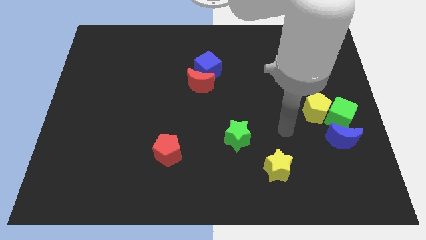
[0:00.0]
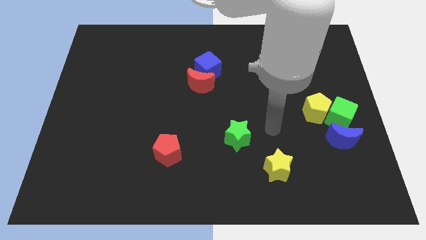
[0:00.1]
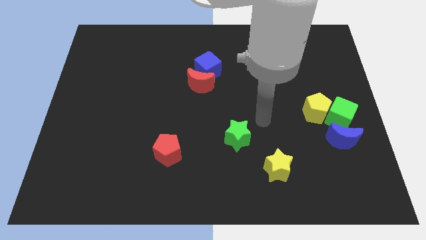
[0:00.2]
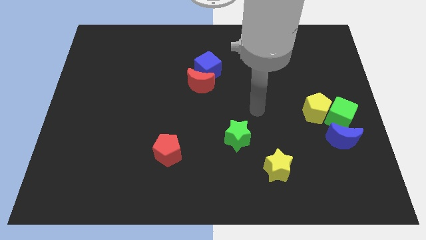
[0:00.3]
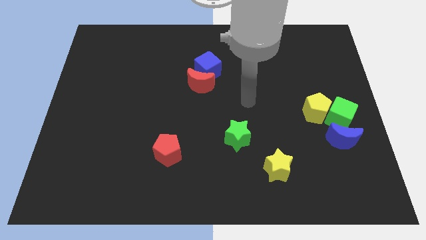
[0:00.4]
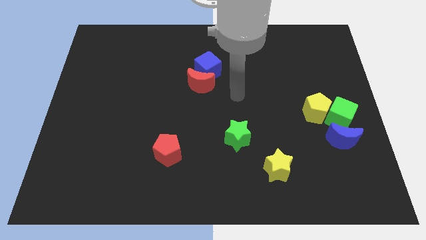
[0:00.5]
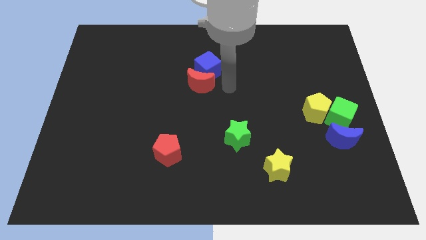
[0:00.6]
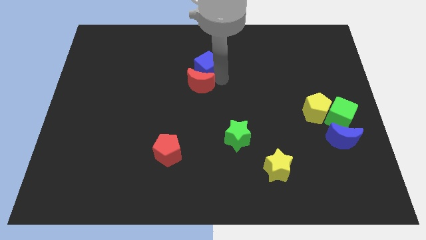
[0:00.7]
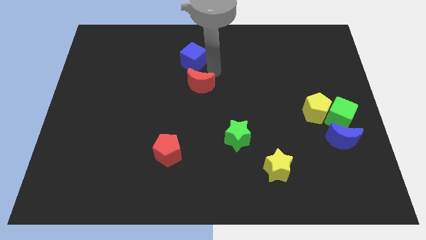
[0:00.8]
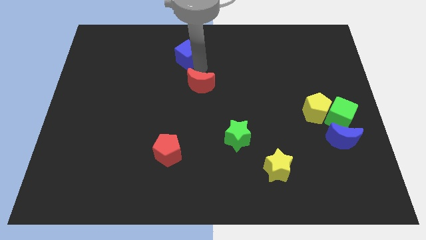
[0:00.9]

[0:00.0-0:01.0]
separate the red moon from the blue cube

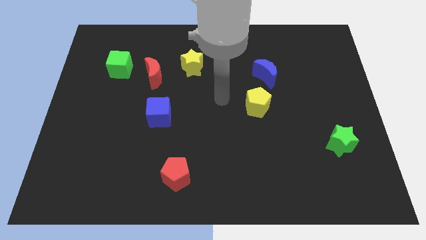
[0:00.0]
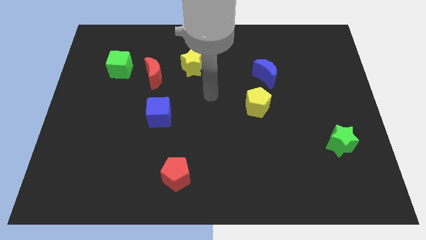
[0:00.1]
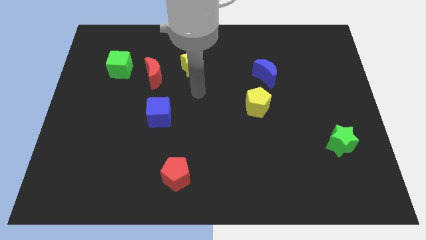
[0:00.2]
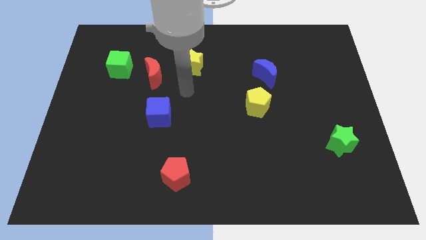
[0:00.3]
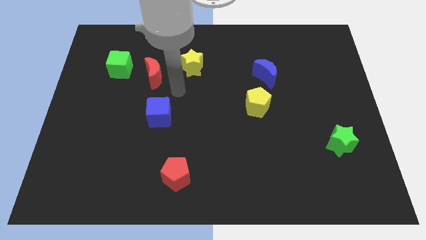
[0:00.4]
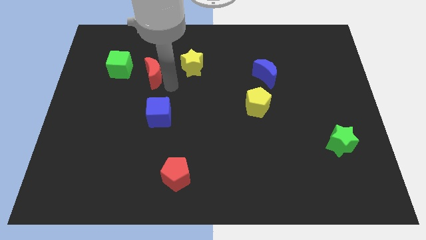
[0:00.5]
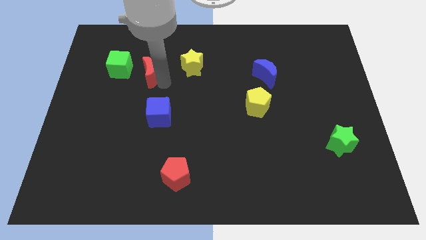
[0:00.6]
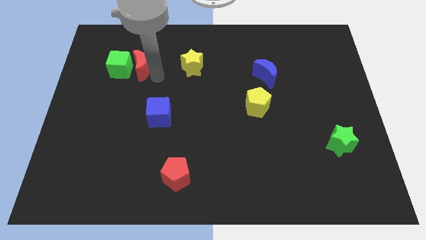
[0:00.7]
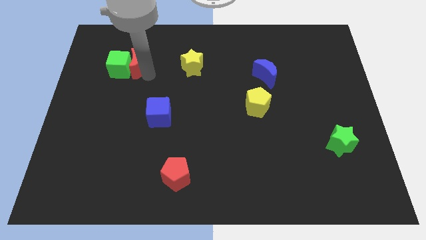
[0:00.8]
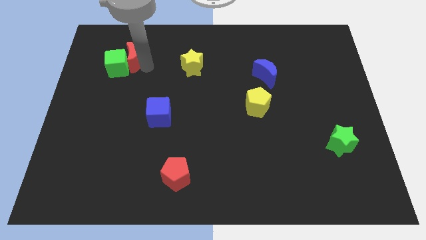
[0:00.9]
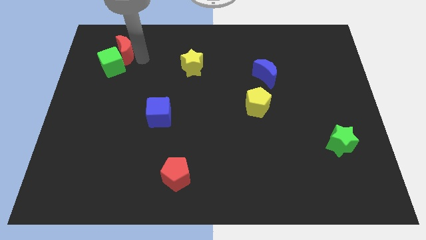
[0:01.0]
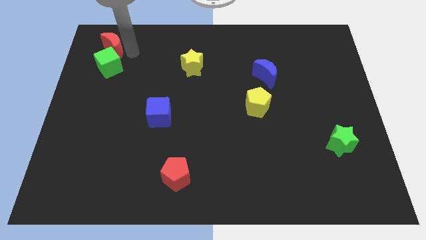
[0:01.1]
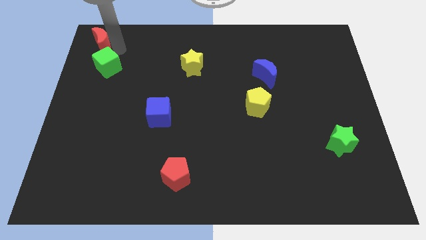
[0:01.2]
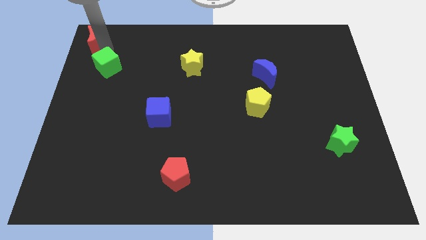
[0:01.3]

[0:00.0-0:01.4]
separate the green cube from the red moon

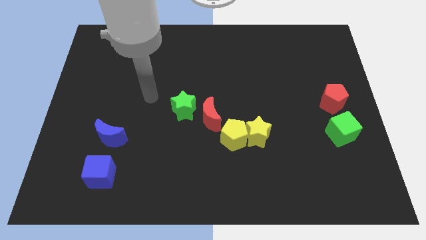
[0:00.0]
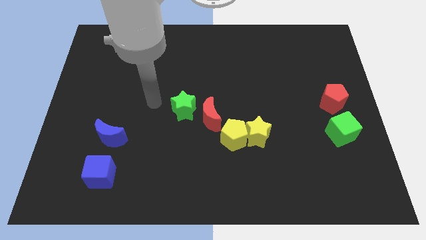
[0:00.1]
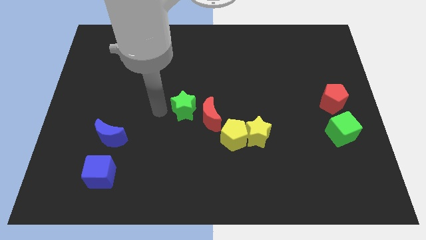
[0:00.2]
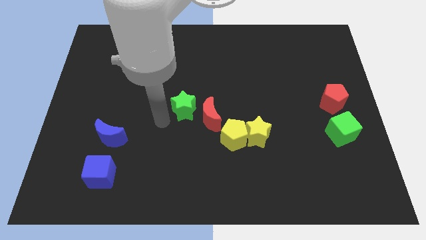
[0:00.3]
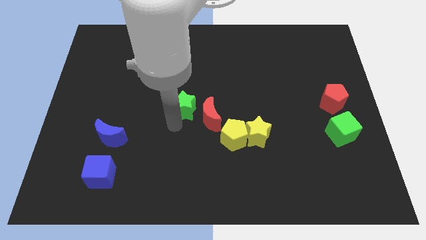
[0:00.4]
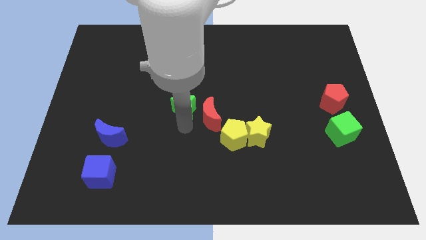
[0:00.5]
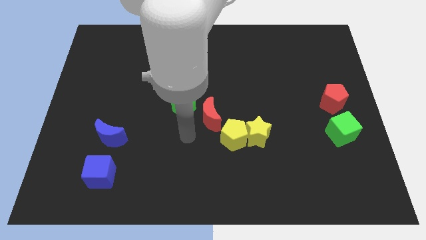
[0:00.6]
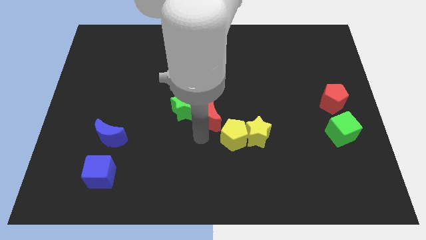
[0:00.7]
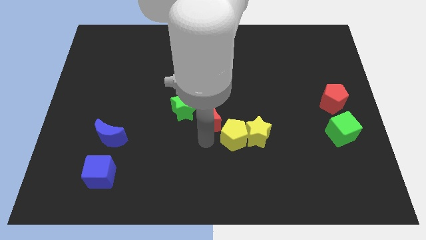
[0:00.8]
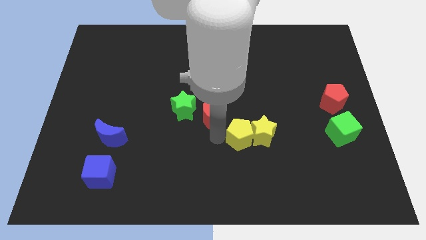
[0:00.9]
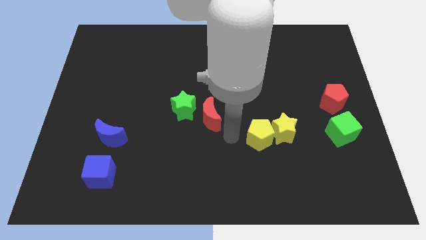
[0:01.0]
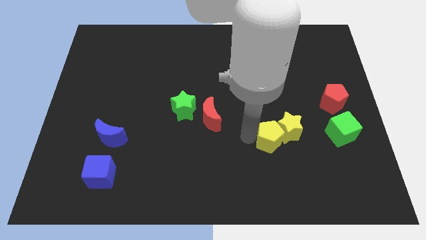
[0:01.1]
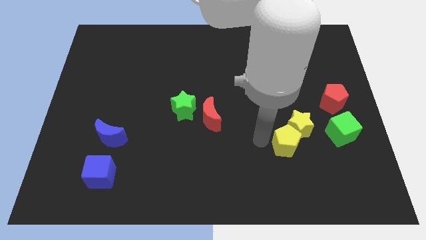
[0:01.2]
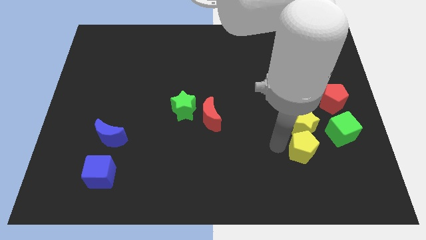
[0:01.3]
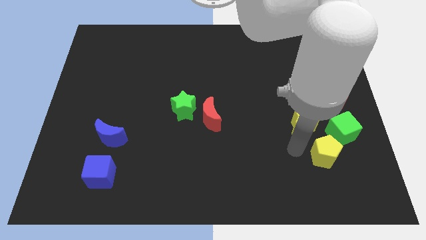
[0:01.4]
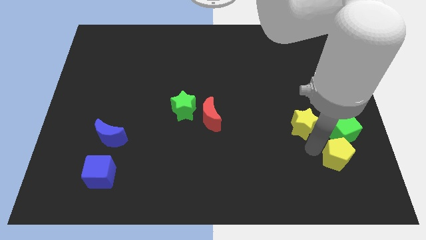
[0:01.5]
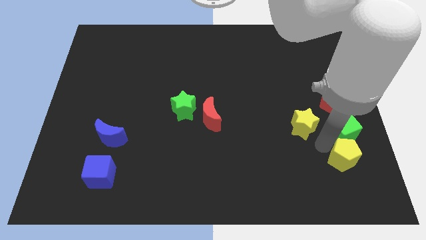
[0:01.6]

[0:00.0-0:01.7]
pull the yellow star apart from the yellow pentagon

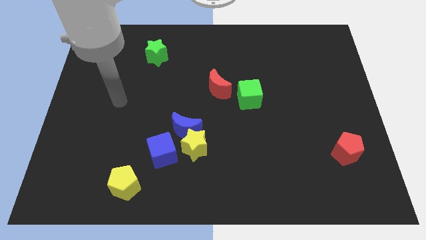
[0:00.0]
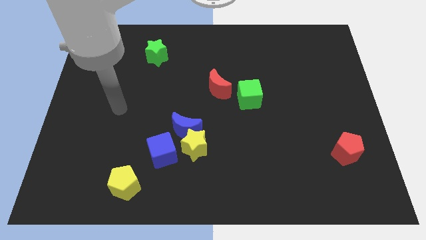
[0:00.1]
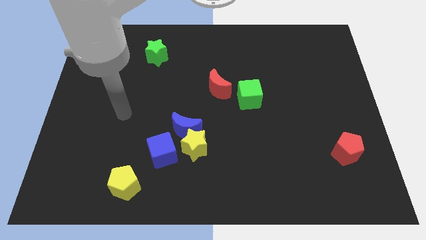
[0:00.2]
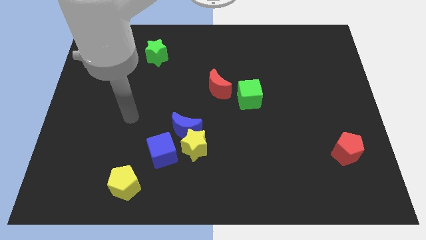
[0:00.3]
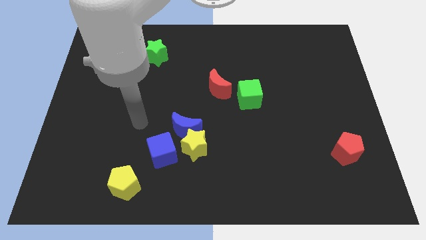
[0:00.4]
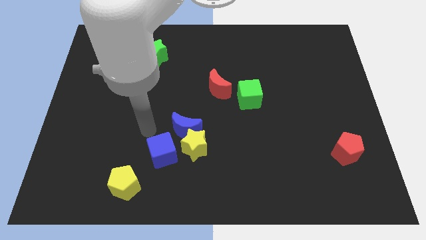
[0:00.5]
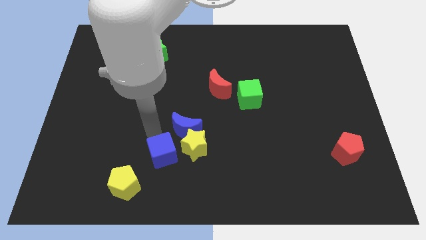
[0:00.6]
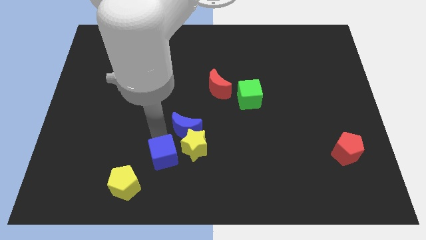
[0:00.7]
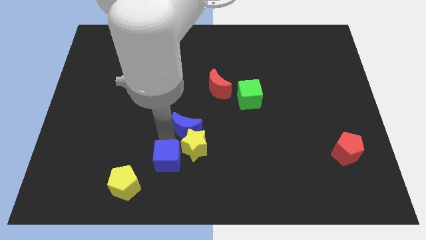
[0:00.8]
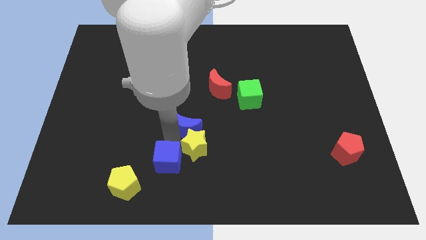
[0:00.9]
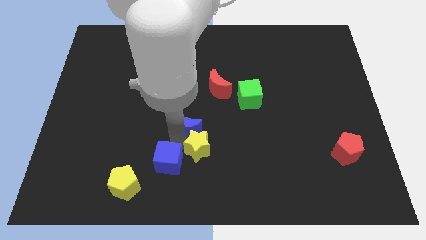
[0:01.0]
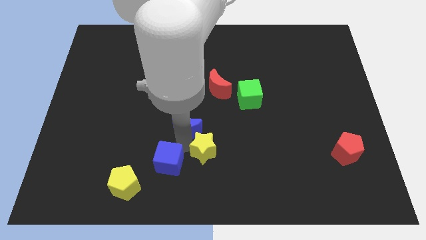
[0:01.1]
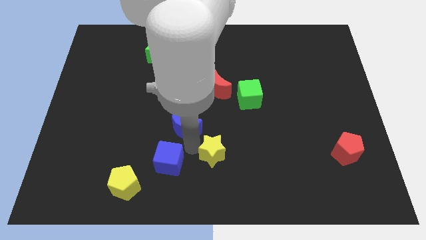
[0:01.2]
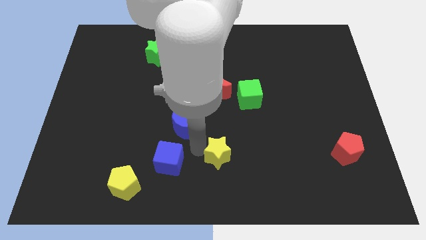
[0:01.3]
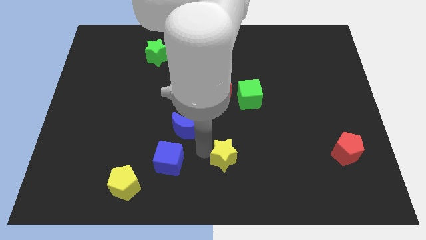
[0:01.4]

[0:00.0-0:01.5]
pull the yellow star apart from the blue moon and blue cube

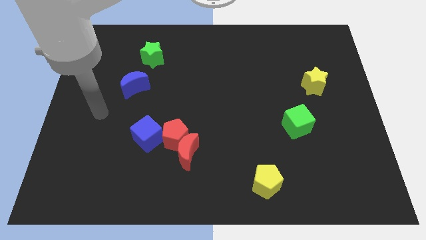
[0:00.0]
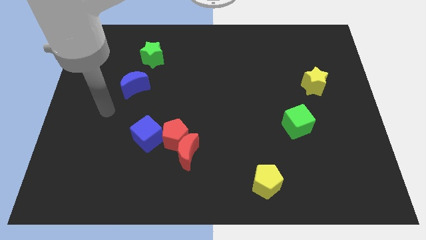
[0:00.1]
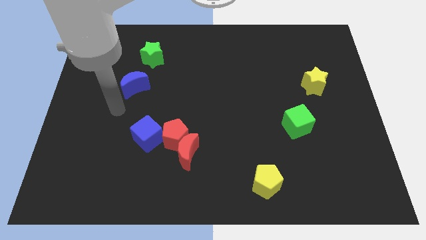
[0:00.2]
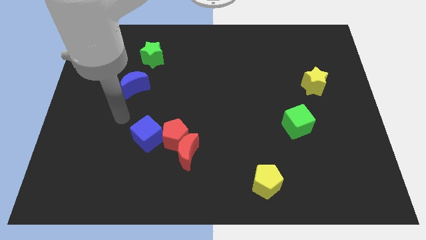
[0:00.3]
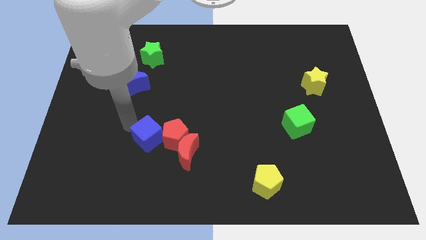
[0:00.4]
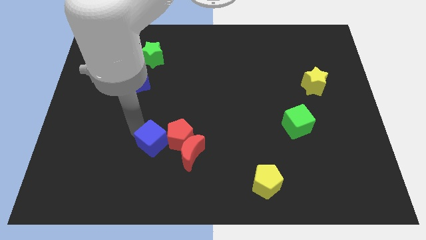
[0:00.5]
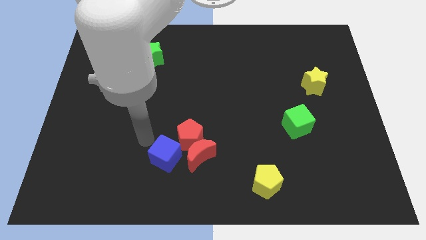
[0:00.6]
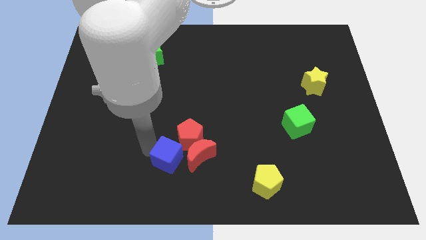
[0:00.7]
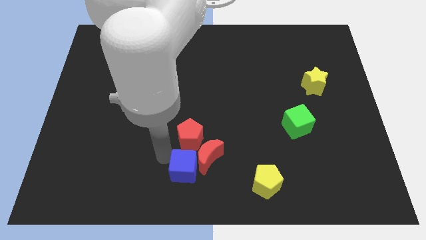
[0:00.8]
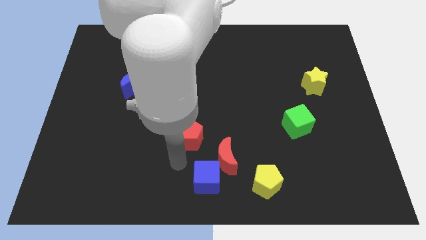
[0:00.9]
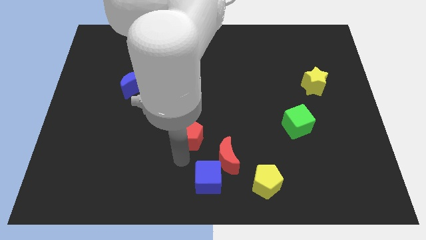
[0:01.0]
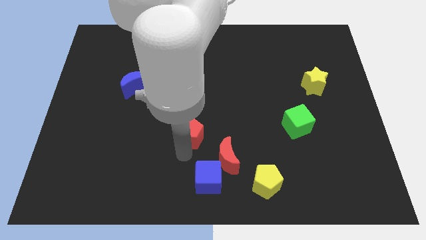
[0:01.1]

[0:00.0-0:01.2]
move the red pentagon away from the red moon and blue cube

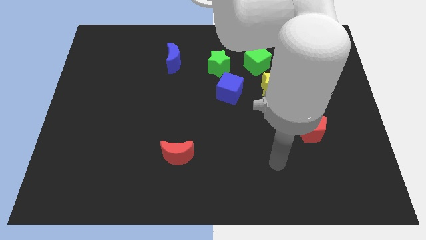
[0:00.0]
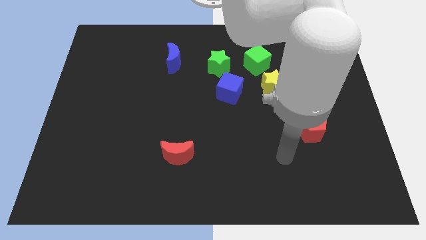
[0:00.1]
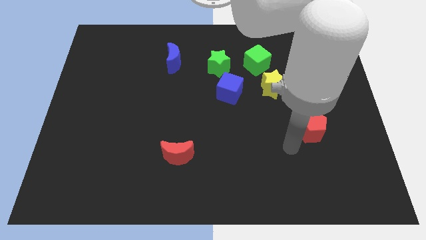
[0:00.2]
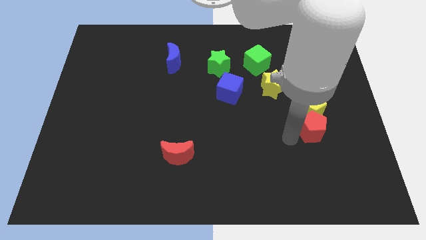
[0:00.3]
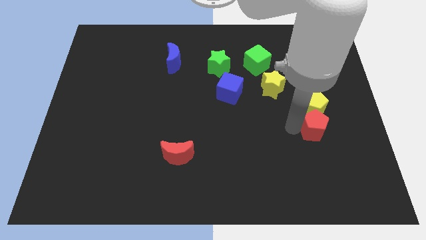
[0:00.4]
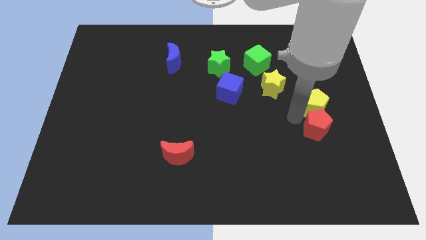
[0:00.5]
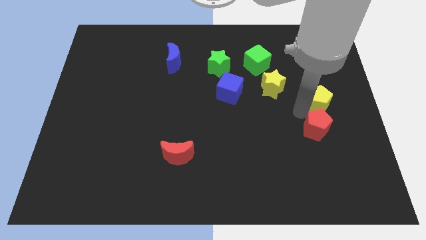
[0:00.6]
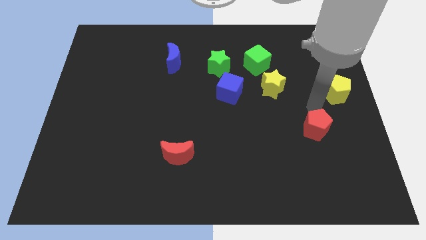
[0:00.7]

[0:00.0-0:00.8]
pull the red pentagon apart from the yellow pentagon

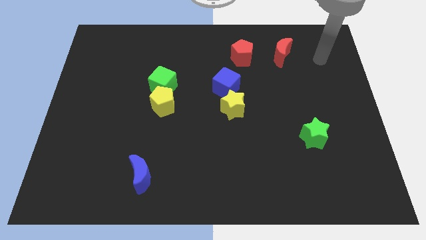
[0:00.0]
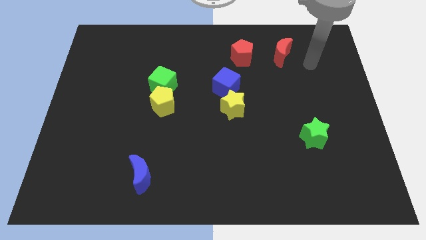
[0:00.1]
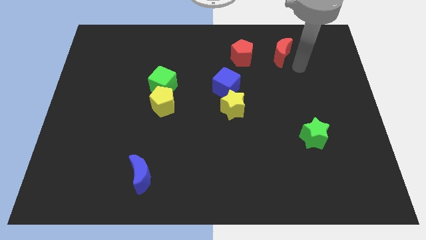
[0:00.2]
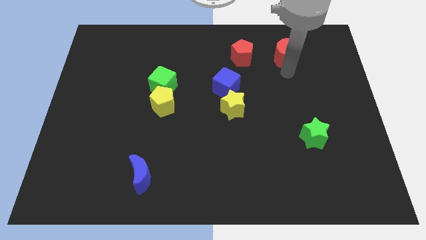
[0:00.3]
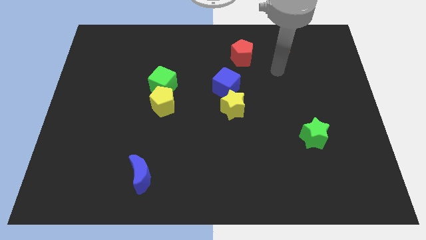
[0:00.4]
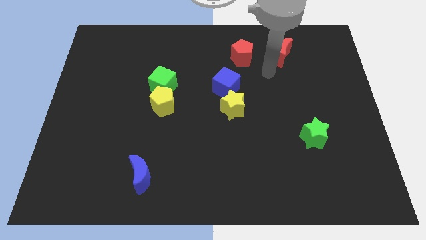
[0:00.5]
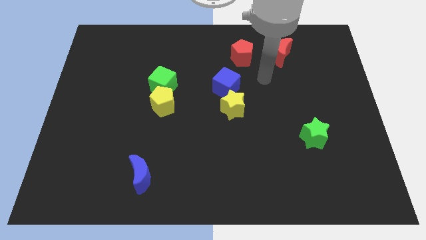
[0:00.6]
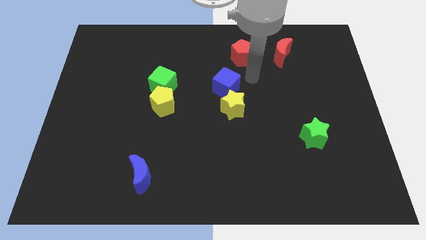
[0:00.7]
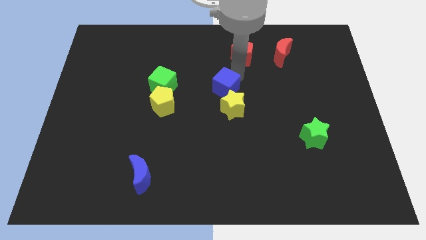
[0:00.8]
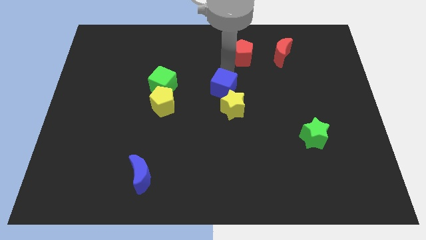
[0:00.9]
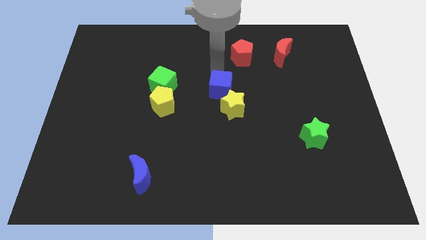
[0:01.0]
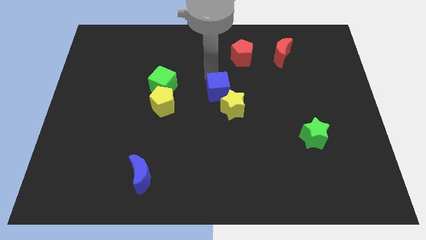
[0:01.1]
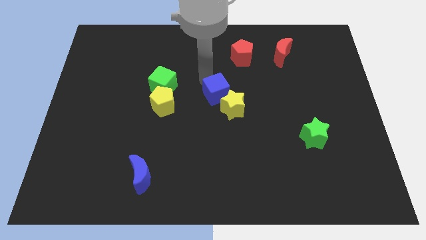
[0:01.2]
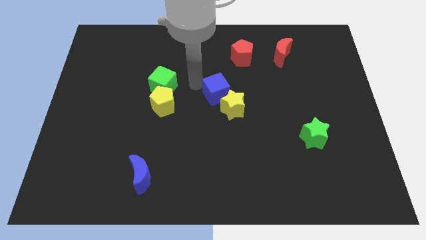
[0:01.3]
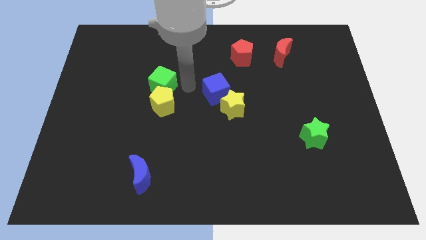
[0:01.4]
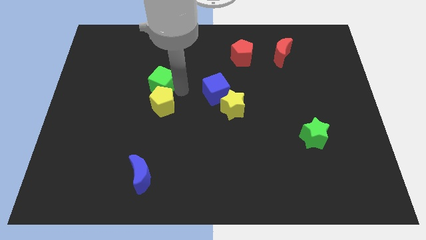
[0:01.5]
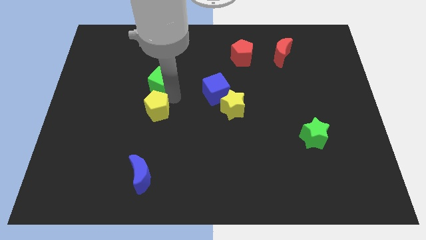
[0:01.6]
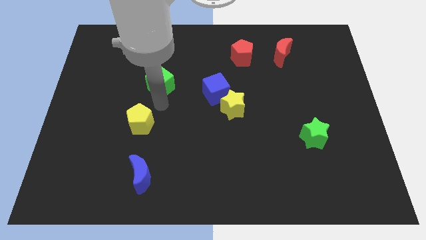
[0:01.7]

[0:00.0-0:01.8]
separate the green cube from the yellow pentagon
